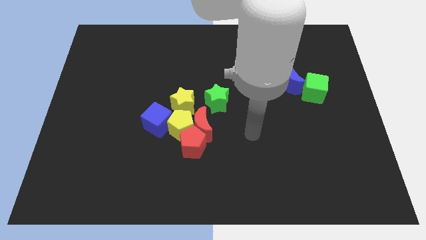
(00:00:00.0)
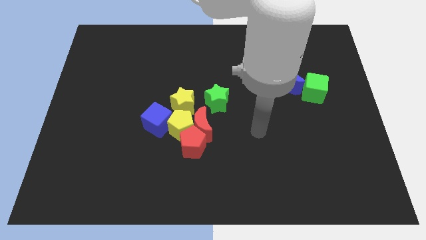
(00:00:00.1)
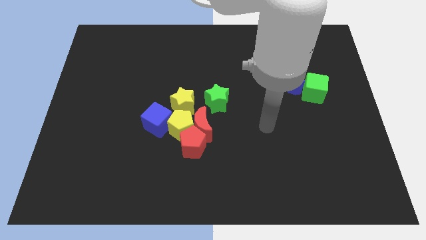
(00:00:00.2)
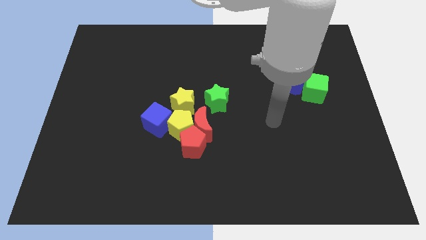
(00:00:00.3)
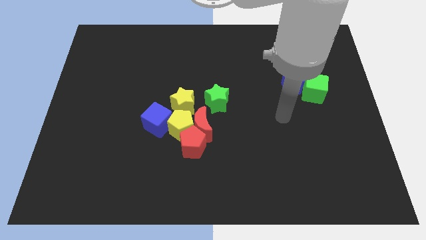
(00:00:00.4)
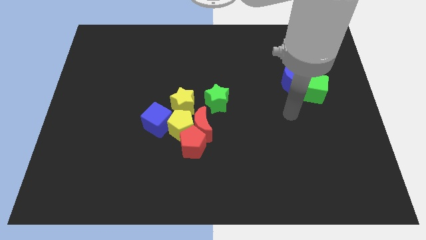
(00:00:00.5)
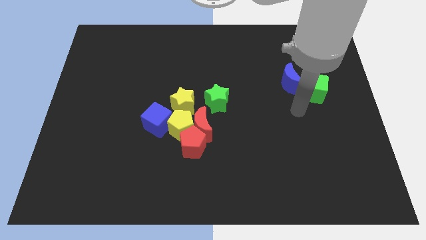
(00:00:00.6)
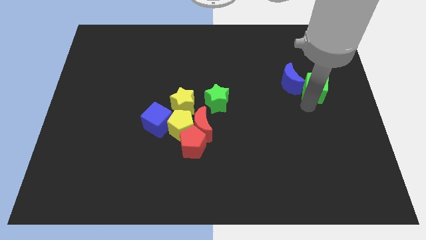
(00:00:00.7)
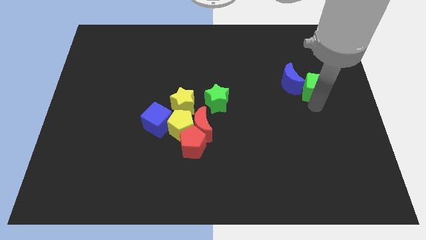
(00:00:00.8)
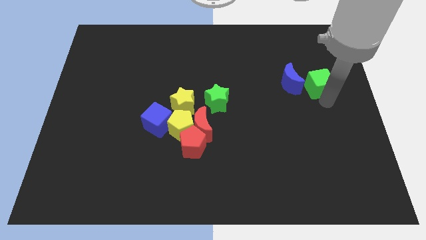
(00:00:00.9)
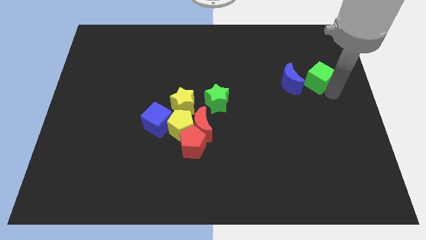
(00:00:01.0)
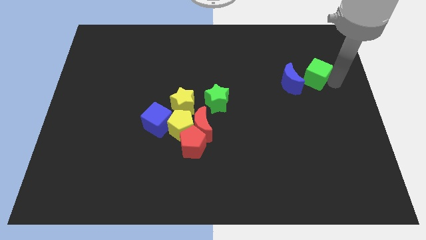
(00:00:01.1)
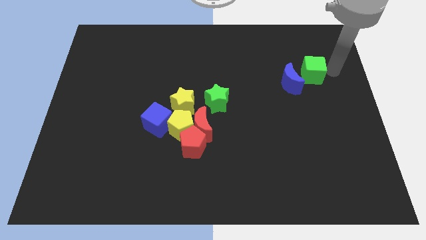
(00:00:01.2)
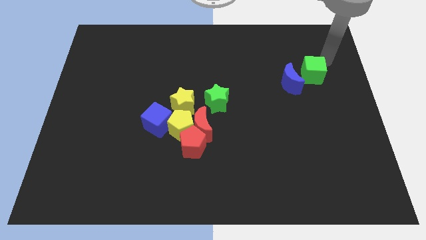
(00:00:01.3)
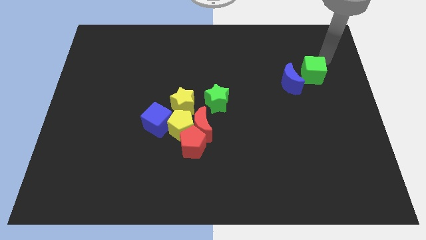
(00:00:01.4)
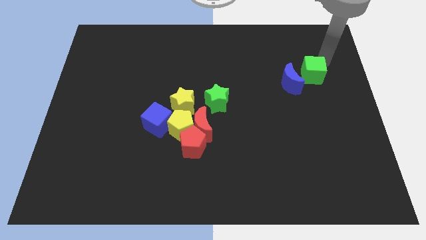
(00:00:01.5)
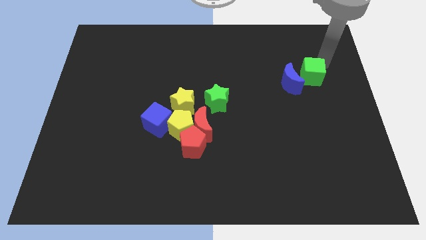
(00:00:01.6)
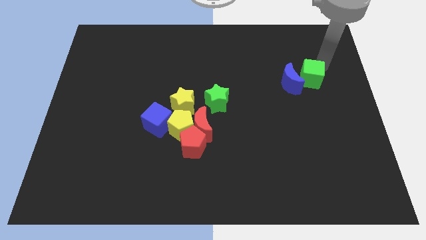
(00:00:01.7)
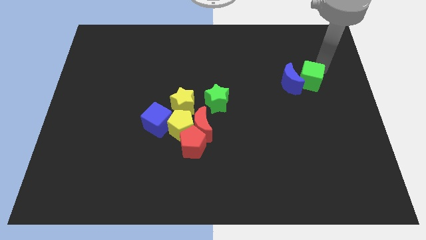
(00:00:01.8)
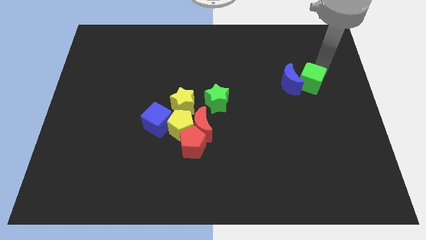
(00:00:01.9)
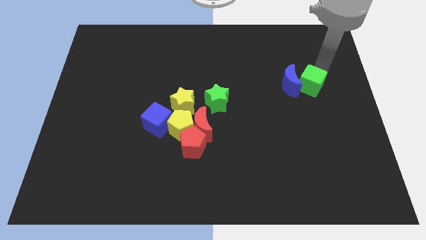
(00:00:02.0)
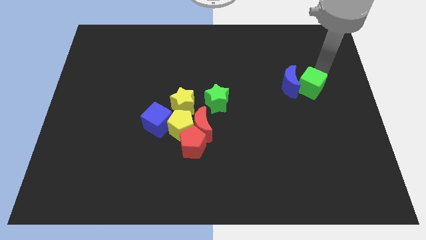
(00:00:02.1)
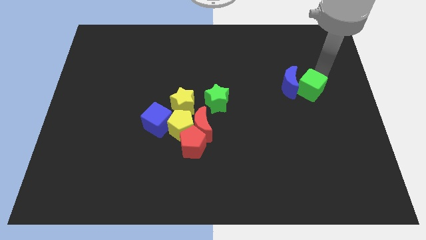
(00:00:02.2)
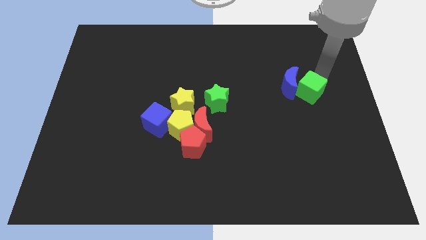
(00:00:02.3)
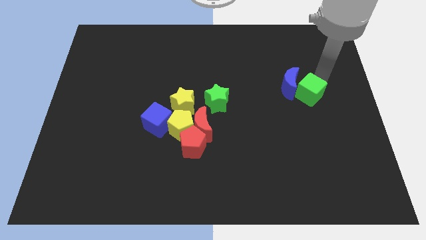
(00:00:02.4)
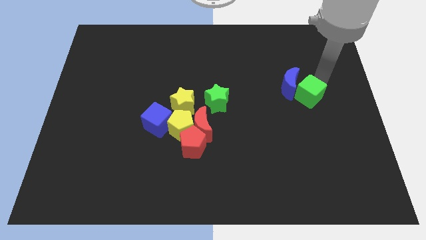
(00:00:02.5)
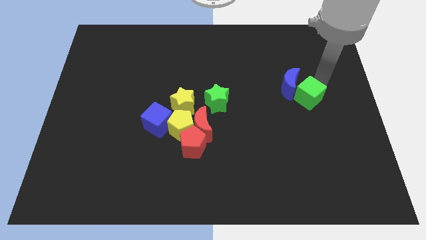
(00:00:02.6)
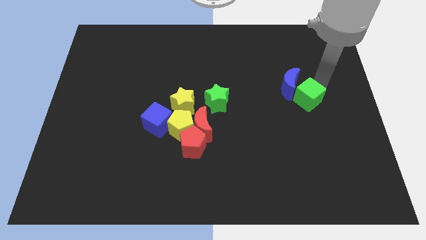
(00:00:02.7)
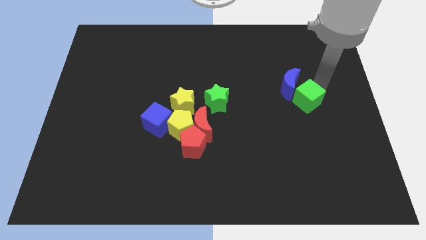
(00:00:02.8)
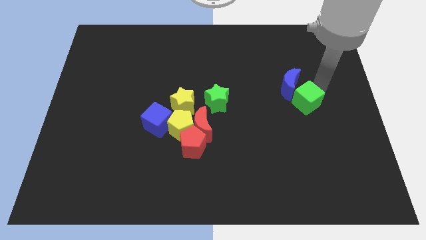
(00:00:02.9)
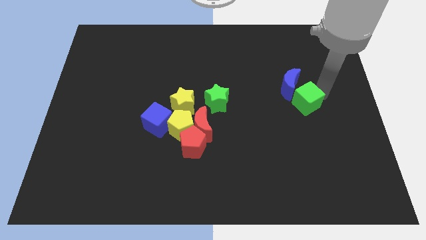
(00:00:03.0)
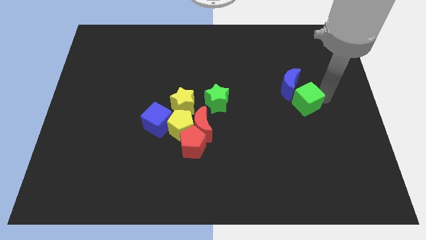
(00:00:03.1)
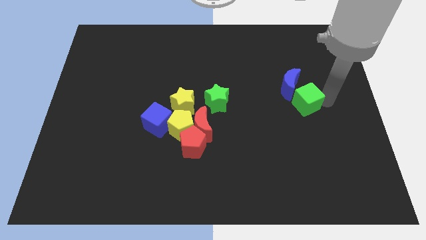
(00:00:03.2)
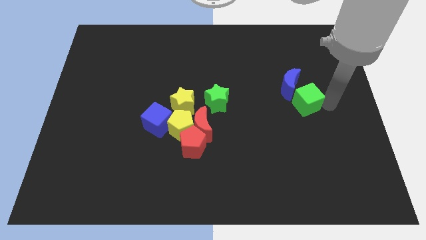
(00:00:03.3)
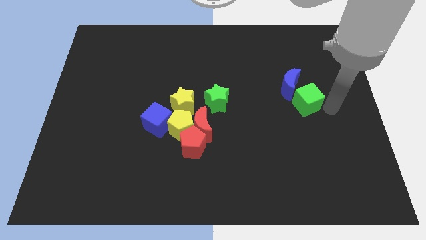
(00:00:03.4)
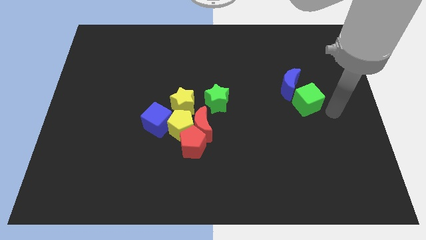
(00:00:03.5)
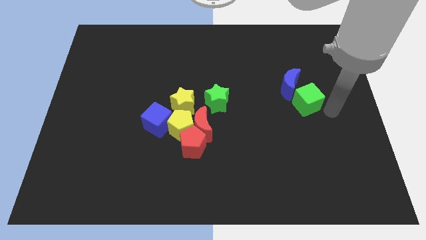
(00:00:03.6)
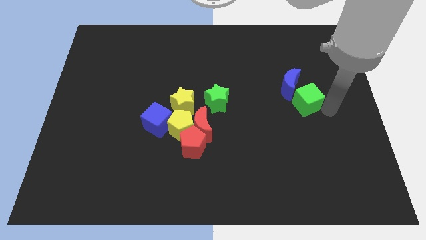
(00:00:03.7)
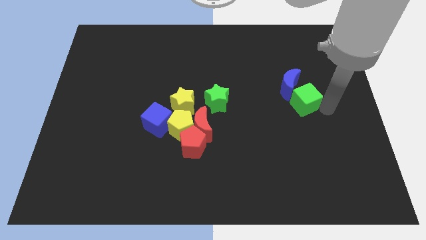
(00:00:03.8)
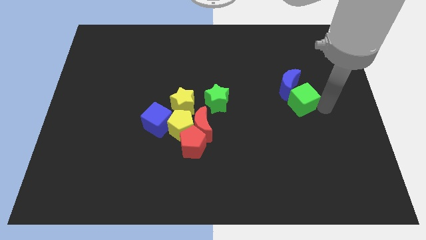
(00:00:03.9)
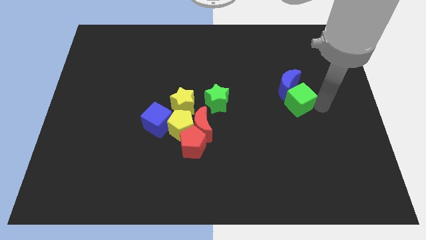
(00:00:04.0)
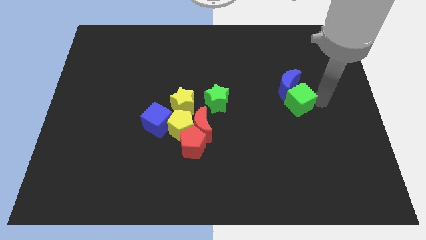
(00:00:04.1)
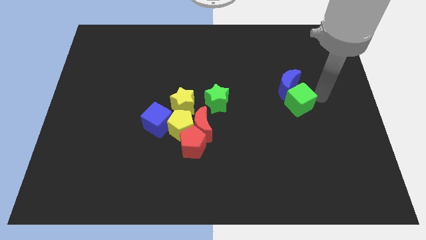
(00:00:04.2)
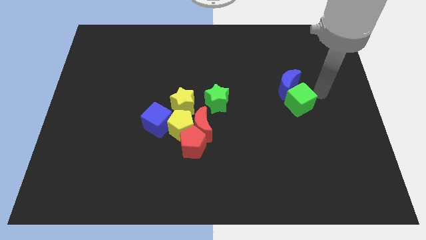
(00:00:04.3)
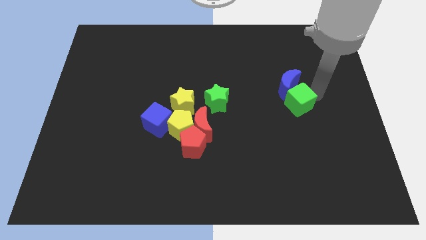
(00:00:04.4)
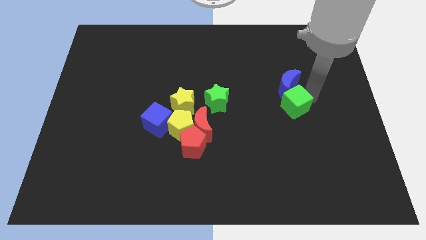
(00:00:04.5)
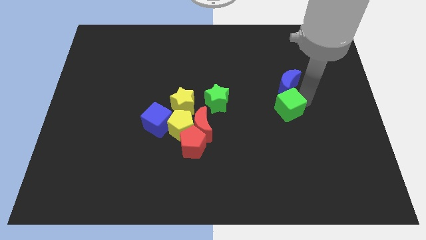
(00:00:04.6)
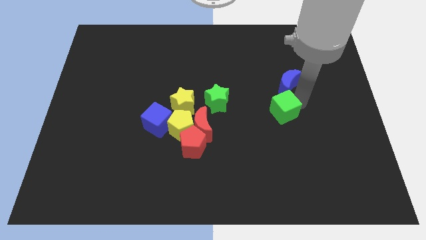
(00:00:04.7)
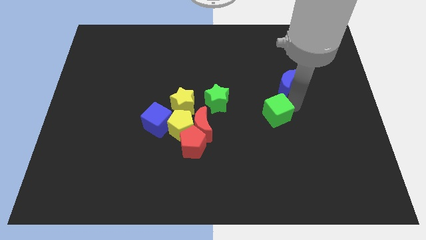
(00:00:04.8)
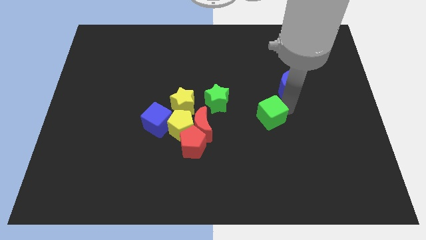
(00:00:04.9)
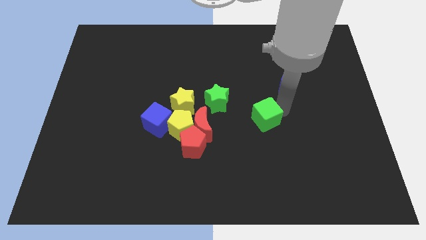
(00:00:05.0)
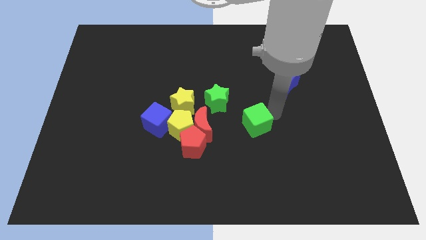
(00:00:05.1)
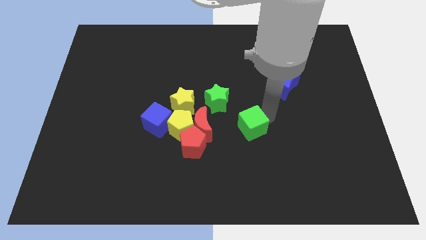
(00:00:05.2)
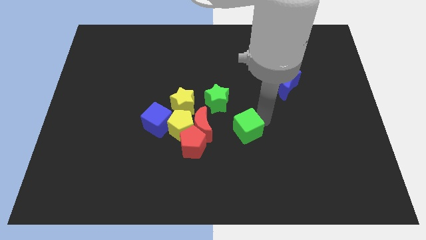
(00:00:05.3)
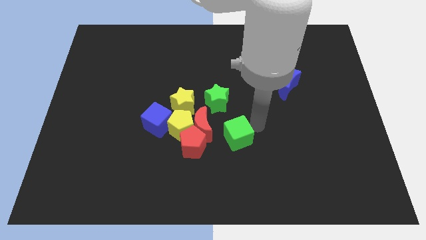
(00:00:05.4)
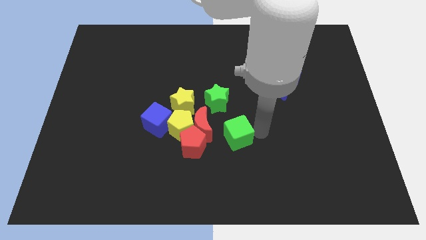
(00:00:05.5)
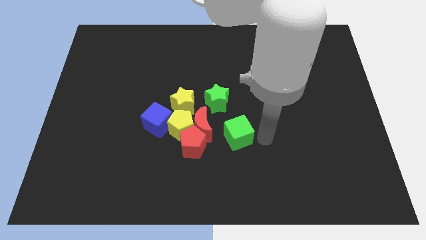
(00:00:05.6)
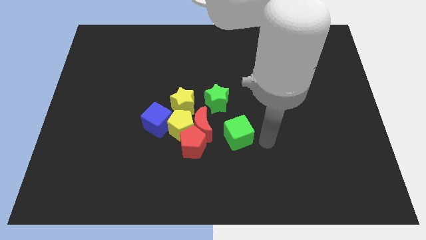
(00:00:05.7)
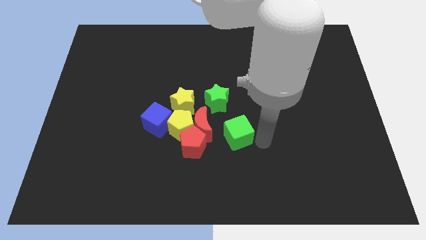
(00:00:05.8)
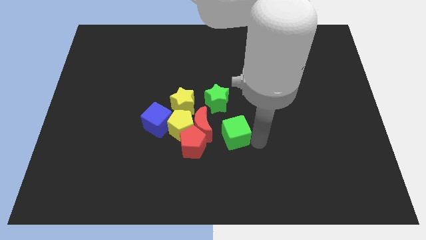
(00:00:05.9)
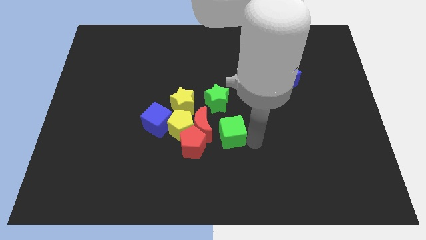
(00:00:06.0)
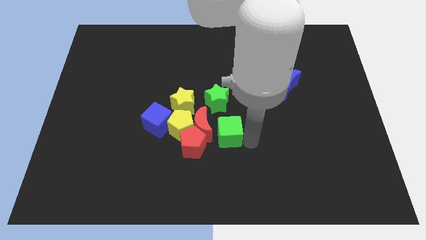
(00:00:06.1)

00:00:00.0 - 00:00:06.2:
push the green cube next to the red moon

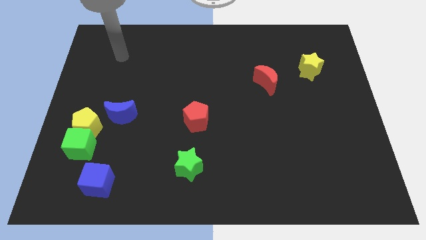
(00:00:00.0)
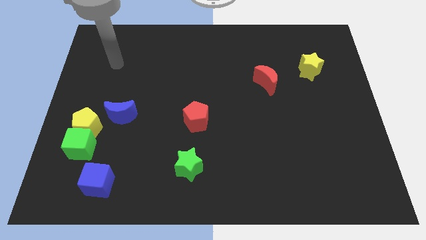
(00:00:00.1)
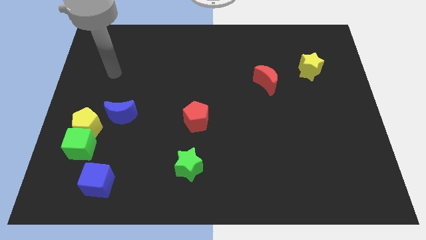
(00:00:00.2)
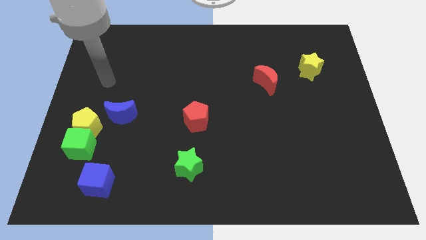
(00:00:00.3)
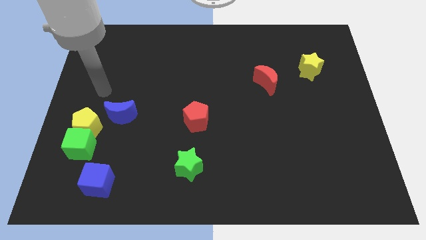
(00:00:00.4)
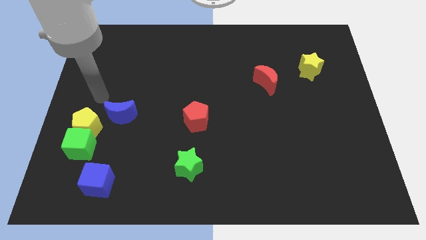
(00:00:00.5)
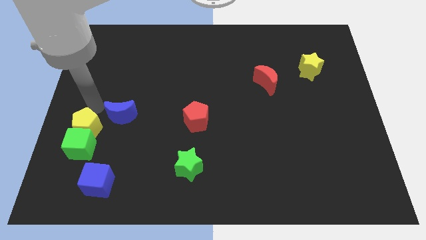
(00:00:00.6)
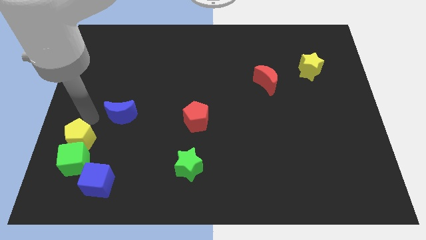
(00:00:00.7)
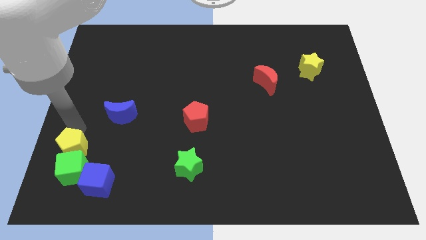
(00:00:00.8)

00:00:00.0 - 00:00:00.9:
move the green cube next to the blue cube

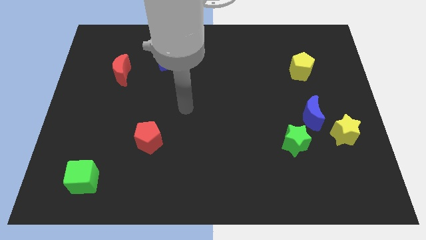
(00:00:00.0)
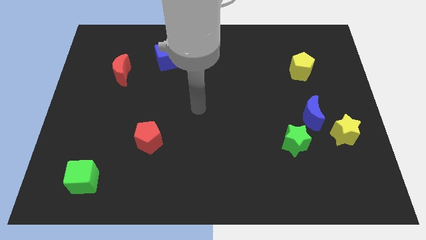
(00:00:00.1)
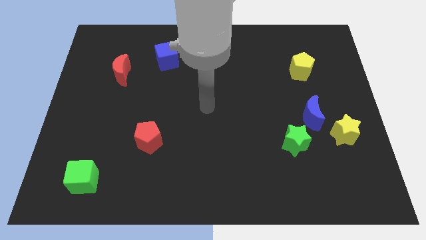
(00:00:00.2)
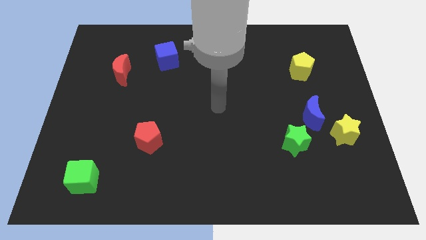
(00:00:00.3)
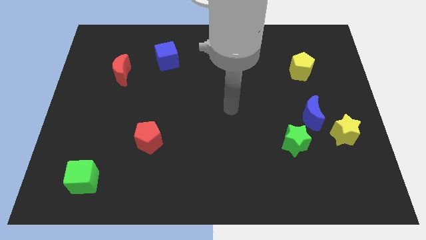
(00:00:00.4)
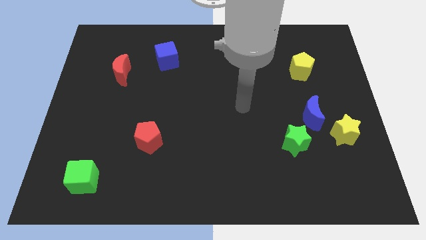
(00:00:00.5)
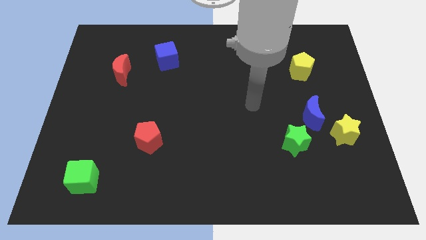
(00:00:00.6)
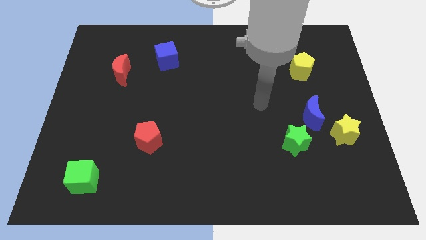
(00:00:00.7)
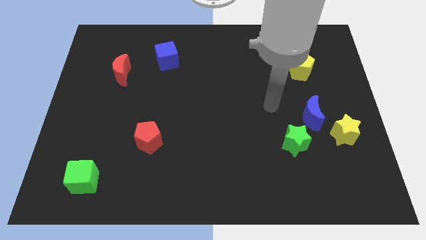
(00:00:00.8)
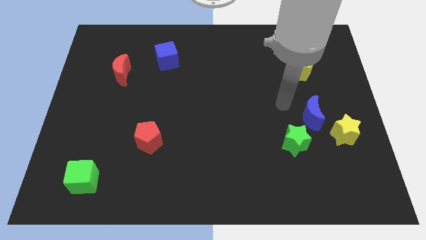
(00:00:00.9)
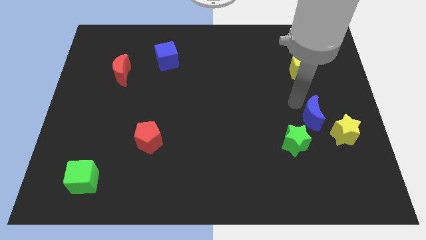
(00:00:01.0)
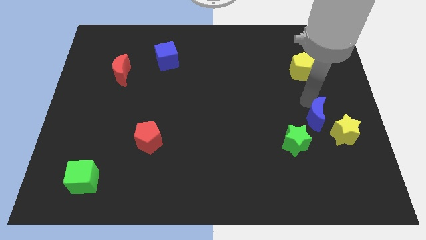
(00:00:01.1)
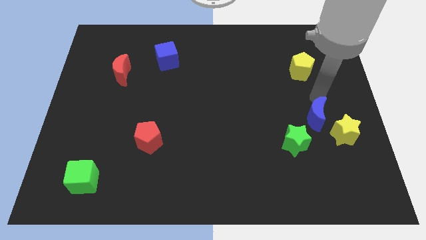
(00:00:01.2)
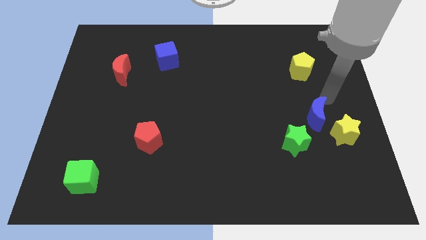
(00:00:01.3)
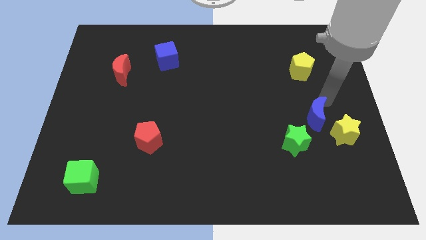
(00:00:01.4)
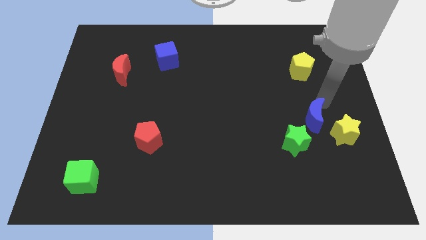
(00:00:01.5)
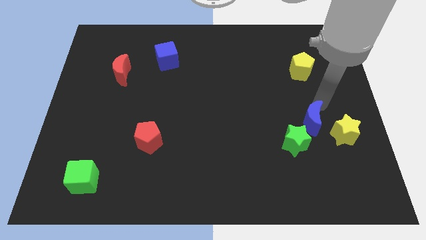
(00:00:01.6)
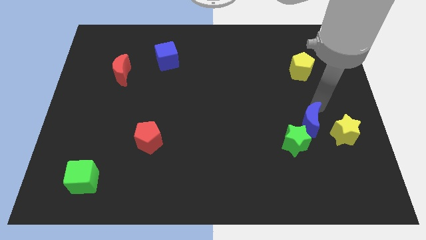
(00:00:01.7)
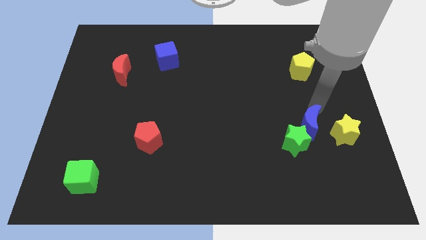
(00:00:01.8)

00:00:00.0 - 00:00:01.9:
slide the blue moon close to the green star
